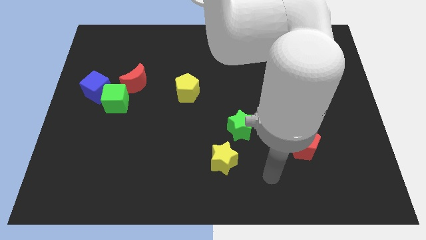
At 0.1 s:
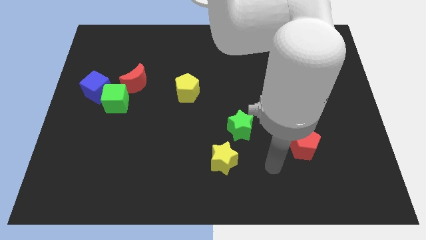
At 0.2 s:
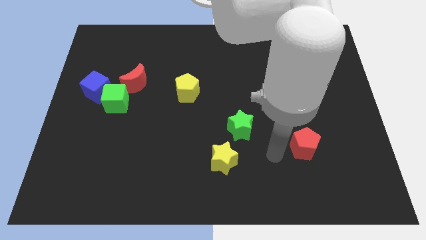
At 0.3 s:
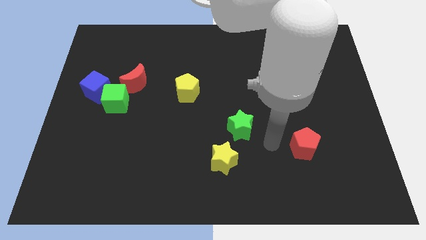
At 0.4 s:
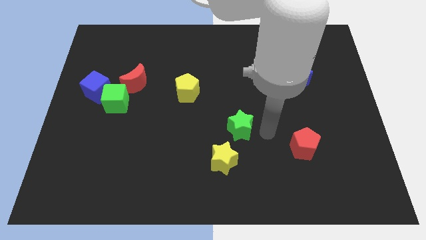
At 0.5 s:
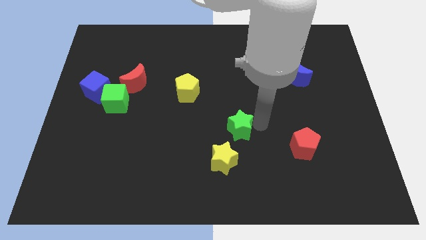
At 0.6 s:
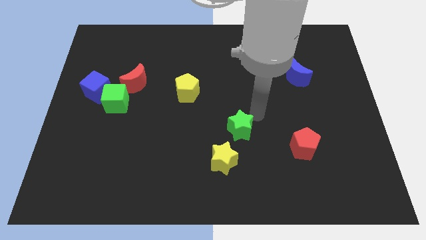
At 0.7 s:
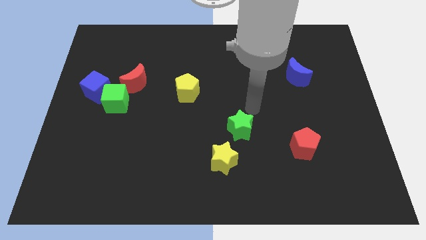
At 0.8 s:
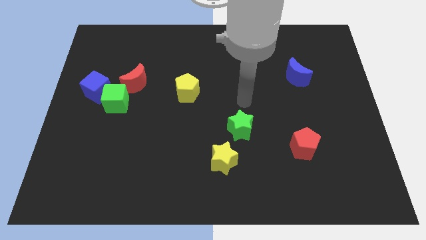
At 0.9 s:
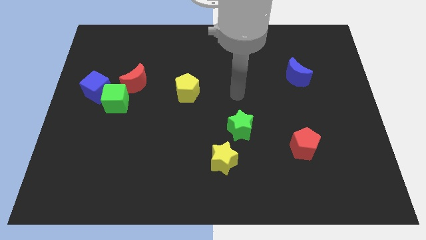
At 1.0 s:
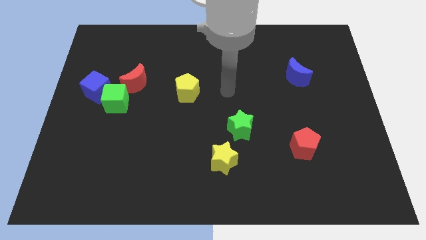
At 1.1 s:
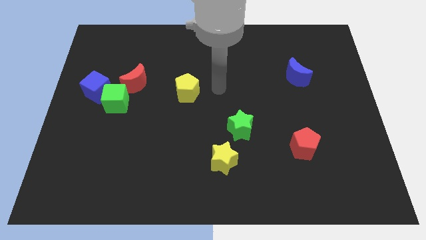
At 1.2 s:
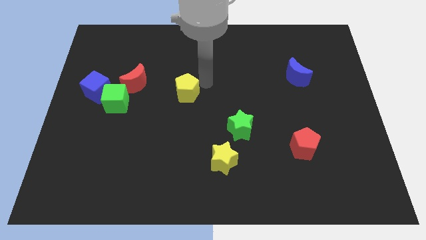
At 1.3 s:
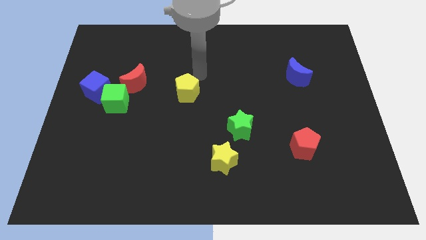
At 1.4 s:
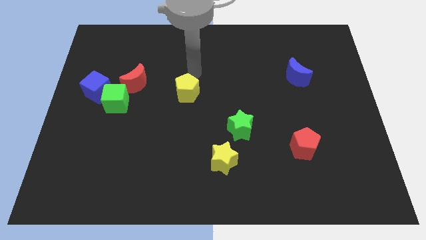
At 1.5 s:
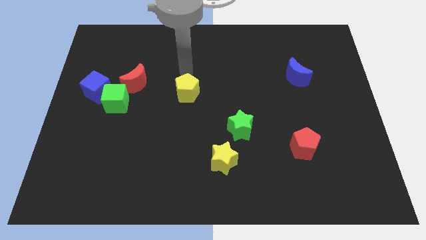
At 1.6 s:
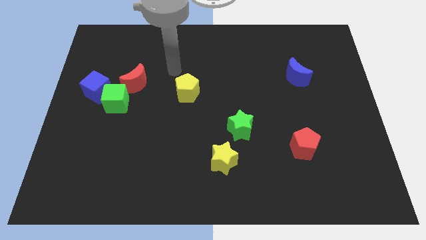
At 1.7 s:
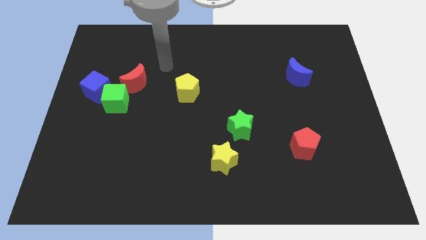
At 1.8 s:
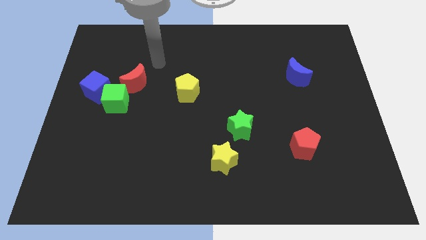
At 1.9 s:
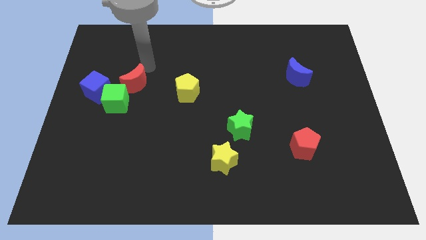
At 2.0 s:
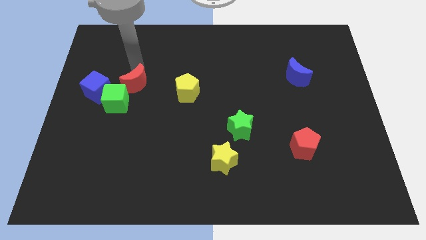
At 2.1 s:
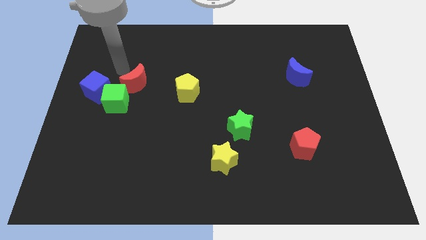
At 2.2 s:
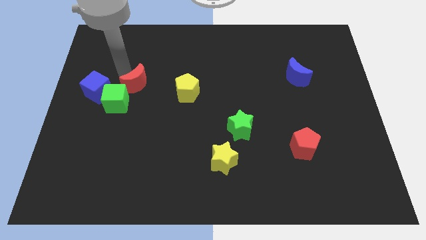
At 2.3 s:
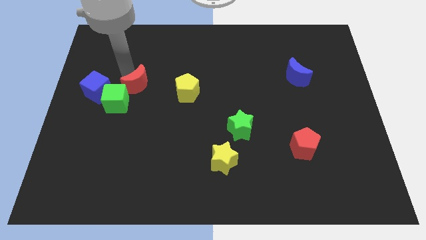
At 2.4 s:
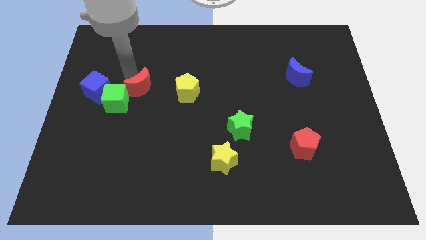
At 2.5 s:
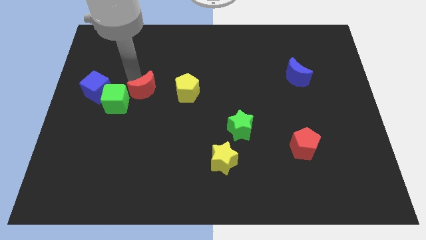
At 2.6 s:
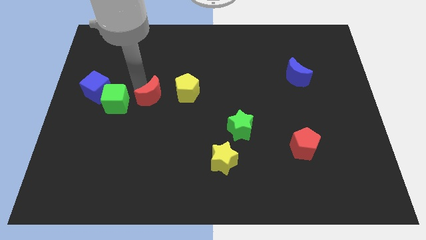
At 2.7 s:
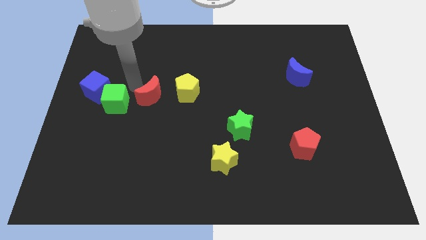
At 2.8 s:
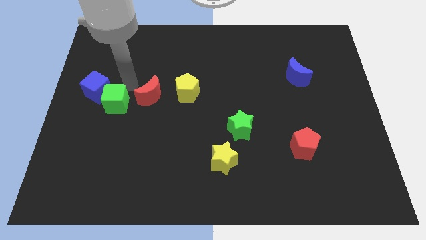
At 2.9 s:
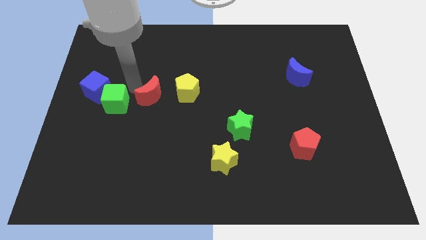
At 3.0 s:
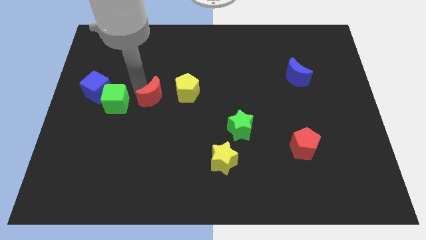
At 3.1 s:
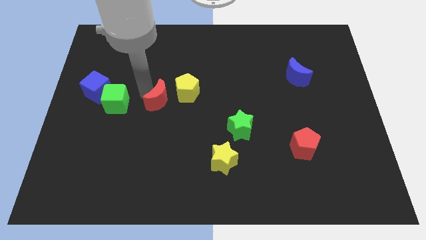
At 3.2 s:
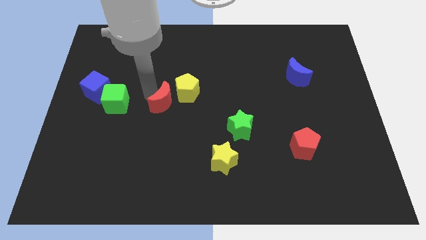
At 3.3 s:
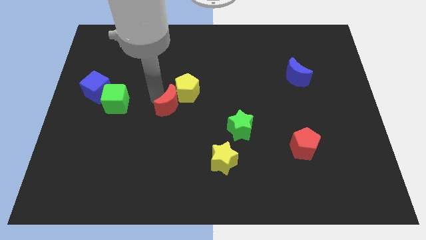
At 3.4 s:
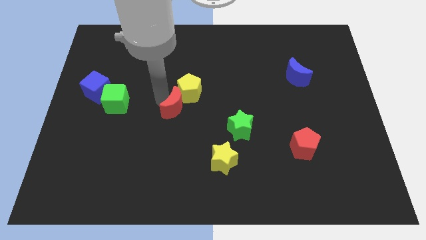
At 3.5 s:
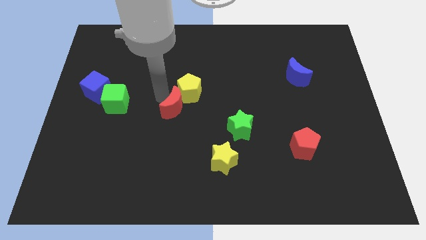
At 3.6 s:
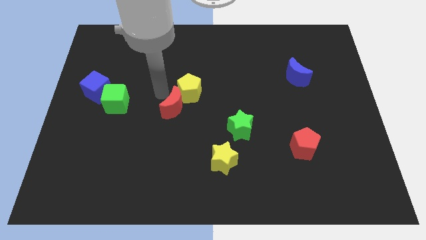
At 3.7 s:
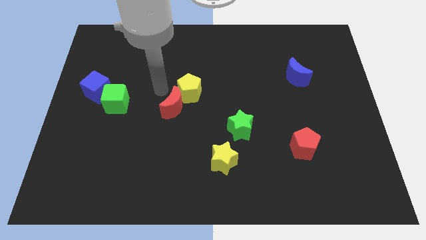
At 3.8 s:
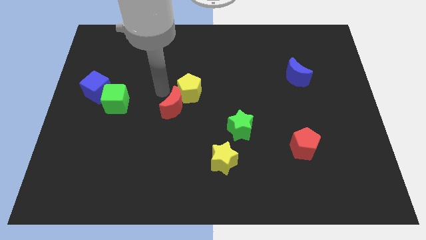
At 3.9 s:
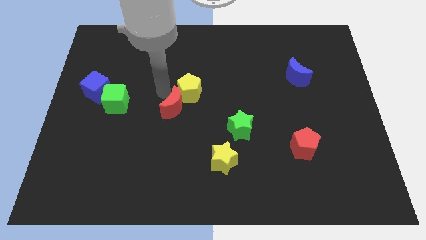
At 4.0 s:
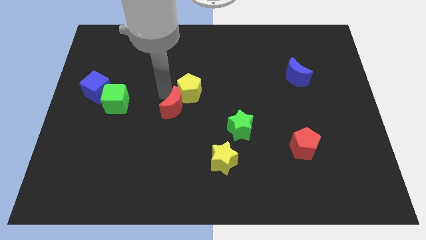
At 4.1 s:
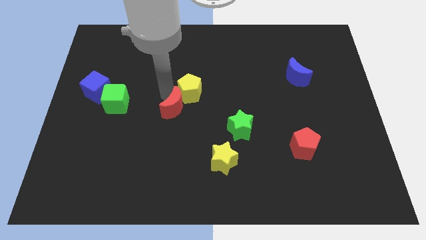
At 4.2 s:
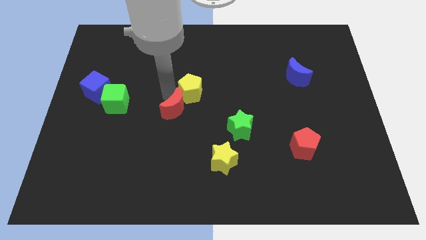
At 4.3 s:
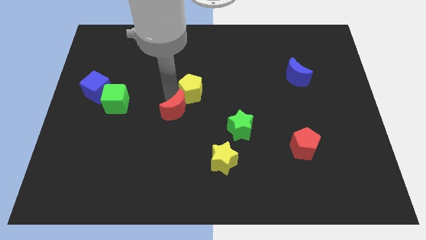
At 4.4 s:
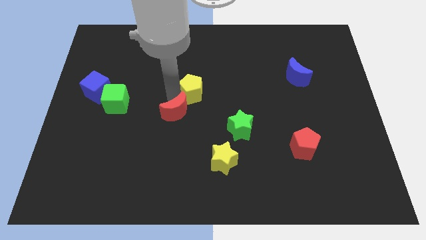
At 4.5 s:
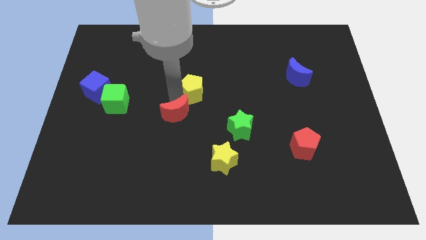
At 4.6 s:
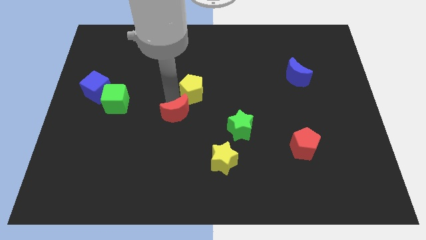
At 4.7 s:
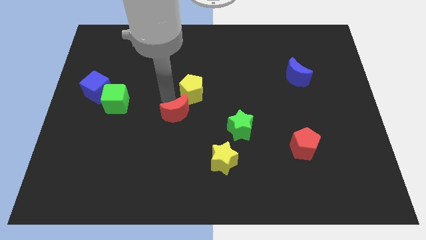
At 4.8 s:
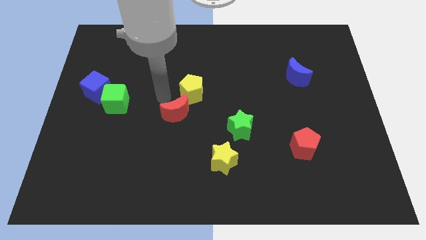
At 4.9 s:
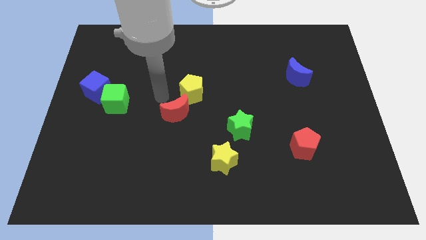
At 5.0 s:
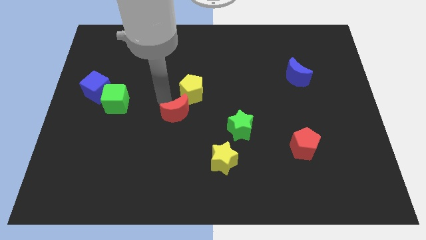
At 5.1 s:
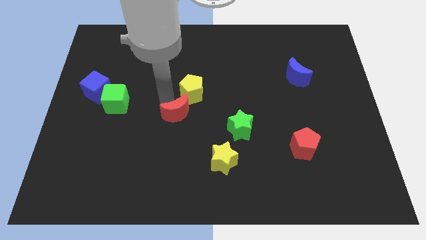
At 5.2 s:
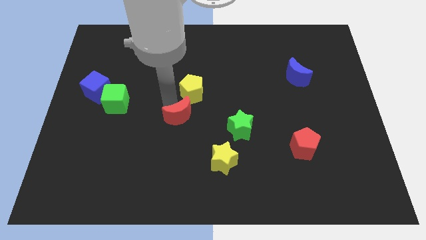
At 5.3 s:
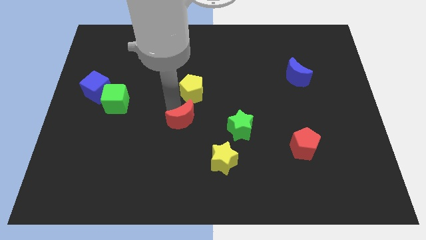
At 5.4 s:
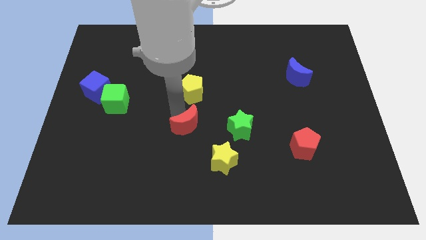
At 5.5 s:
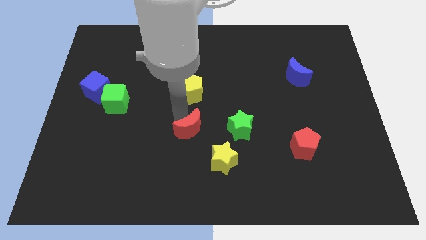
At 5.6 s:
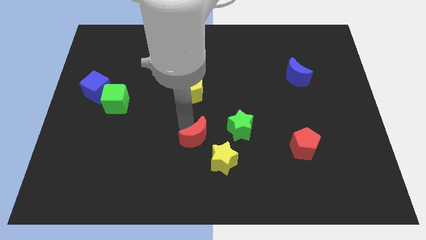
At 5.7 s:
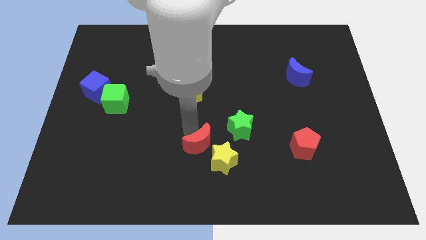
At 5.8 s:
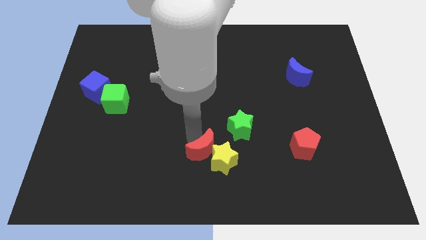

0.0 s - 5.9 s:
put the red moon towards the yellow star

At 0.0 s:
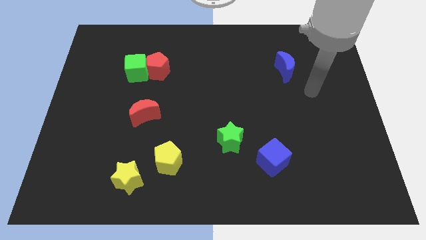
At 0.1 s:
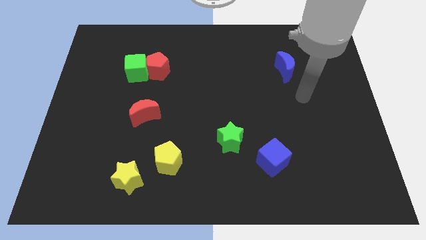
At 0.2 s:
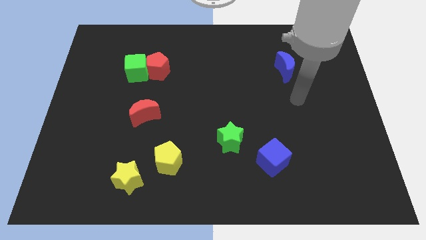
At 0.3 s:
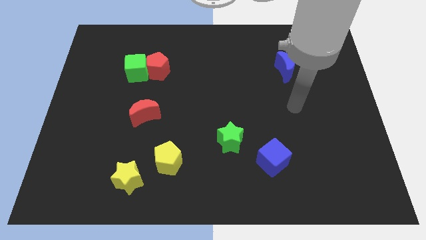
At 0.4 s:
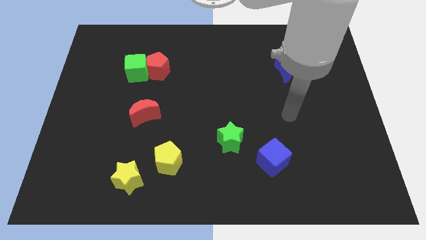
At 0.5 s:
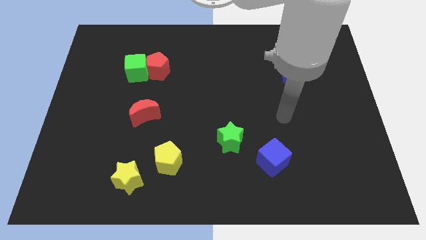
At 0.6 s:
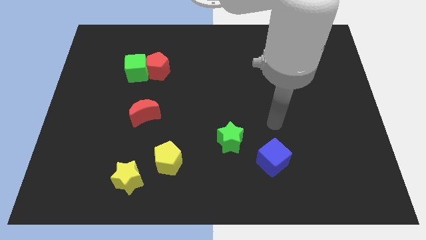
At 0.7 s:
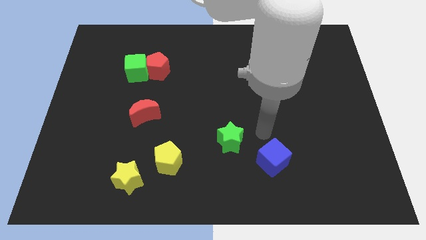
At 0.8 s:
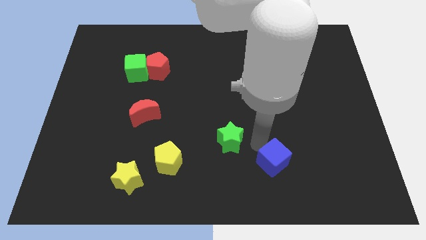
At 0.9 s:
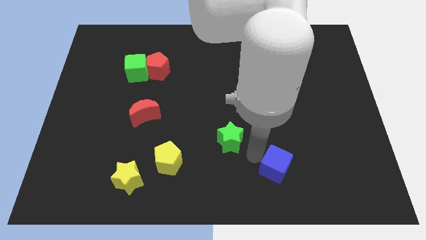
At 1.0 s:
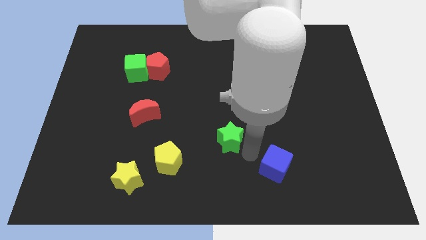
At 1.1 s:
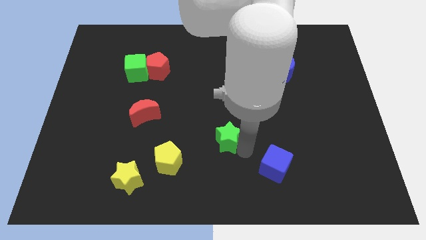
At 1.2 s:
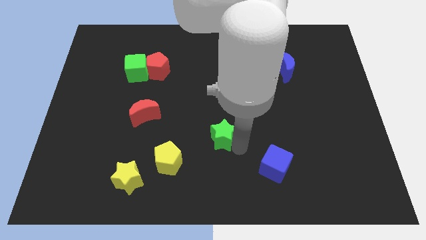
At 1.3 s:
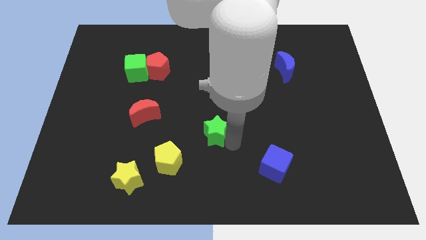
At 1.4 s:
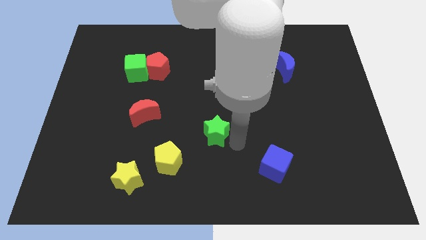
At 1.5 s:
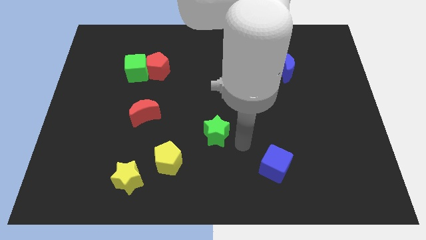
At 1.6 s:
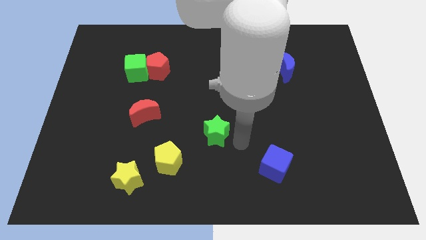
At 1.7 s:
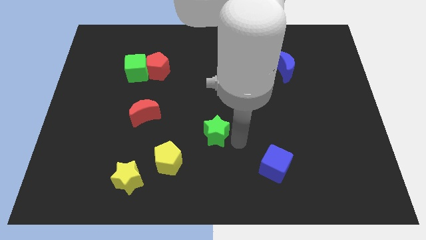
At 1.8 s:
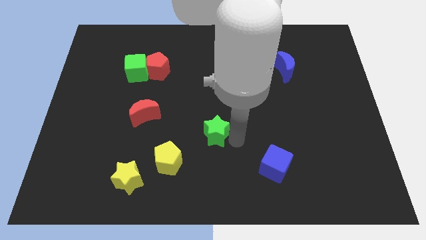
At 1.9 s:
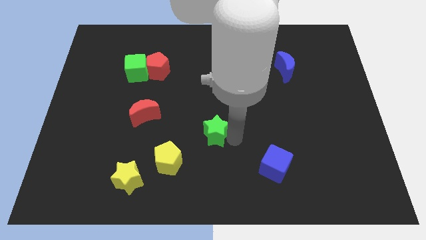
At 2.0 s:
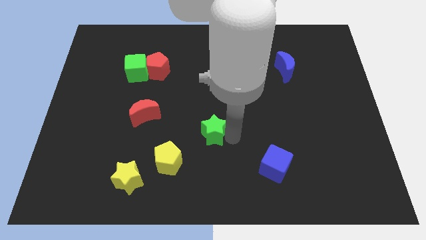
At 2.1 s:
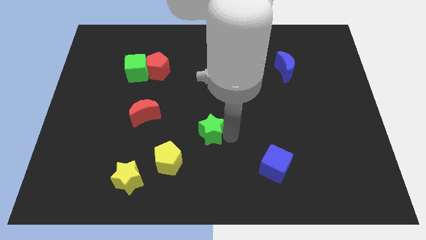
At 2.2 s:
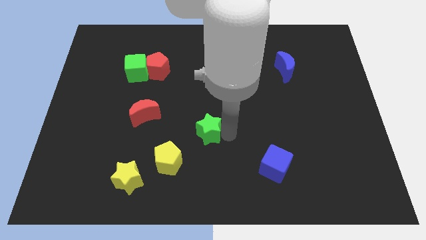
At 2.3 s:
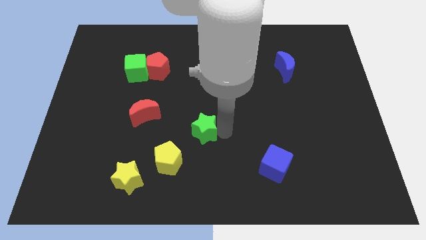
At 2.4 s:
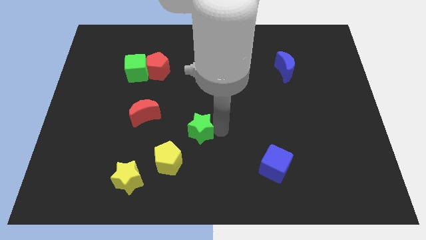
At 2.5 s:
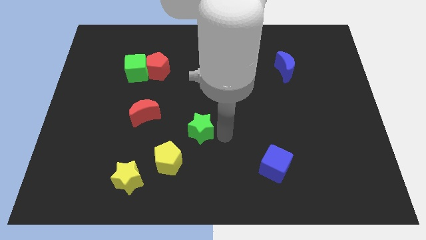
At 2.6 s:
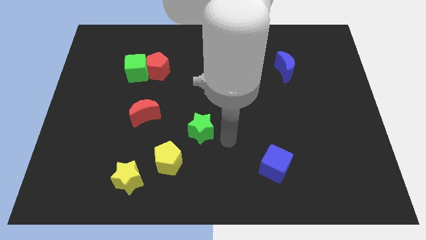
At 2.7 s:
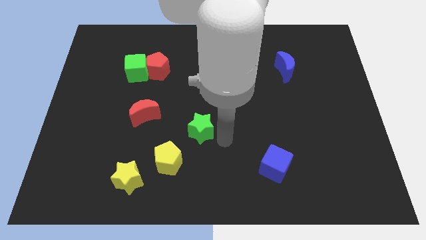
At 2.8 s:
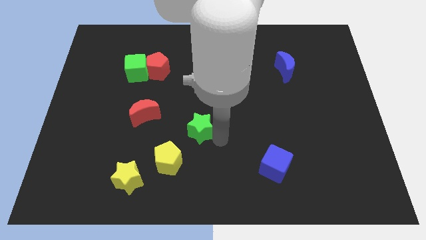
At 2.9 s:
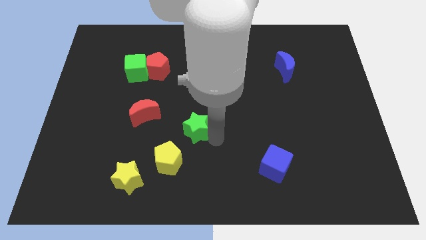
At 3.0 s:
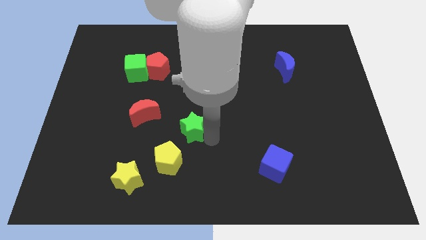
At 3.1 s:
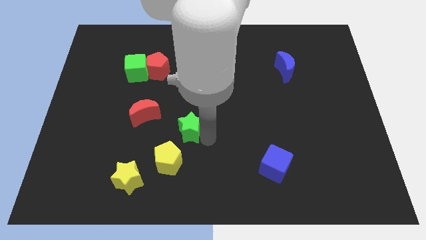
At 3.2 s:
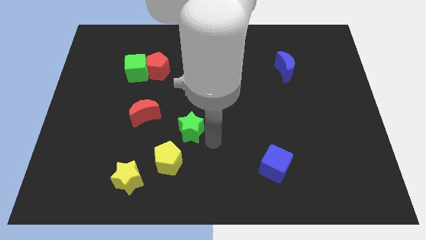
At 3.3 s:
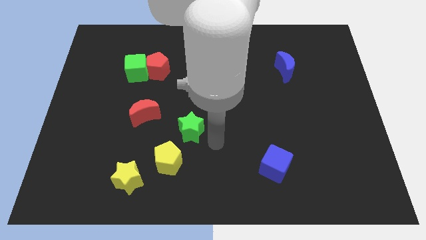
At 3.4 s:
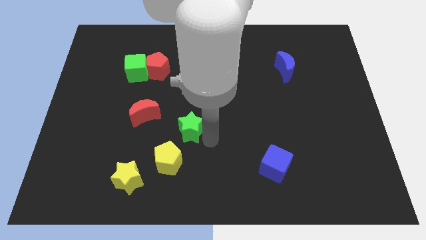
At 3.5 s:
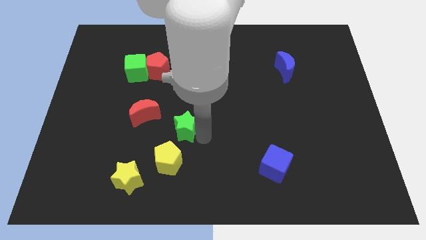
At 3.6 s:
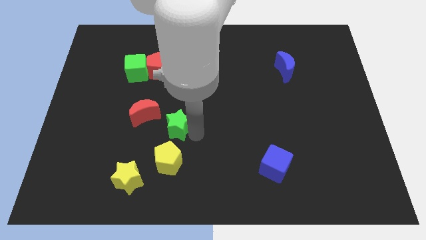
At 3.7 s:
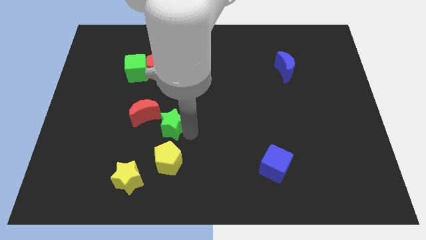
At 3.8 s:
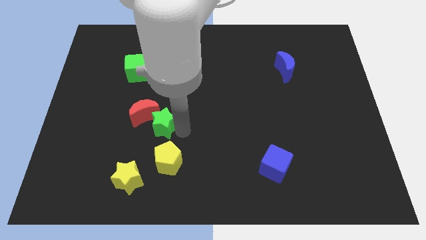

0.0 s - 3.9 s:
move the green star towards the red moon
